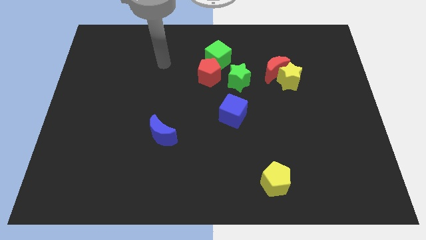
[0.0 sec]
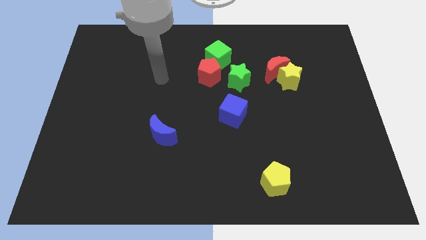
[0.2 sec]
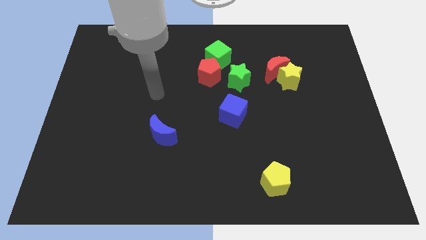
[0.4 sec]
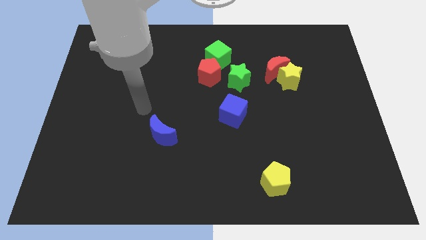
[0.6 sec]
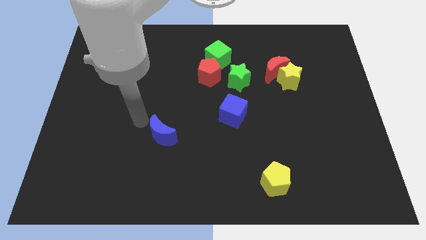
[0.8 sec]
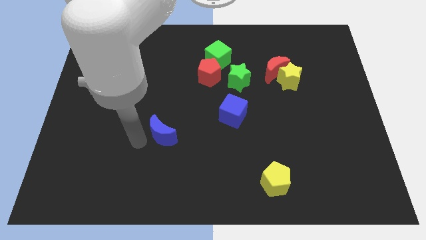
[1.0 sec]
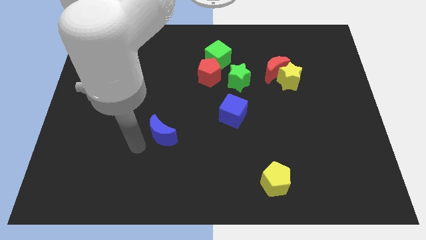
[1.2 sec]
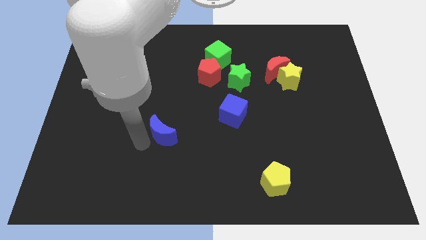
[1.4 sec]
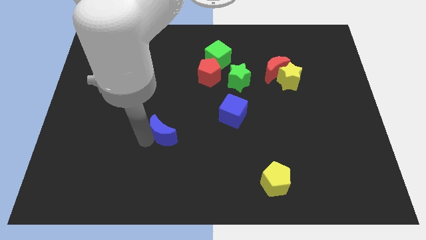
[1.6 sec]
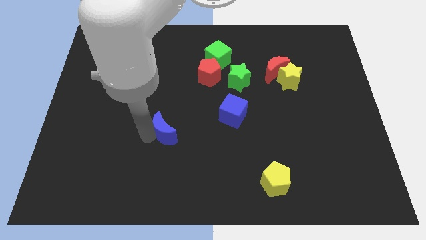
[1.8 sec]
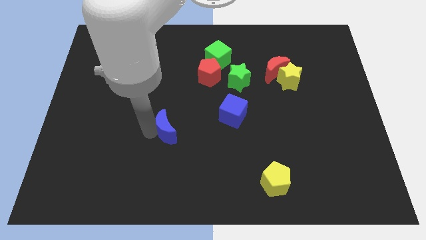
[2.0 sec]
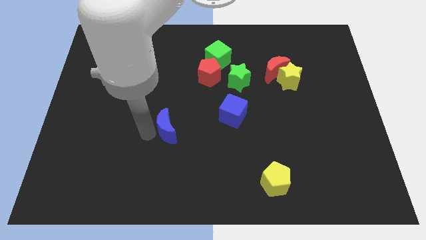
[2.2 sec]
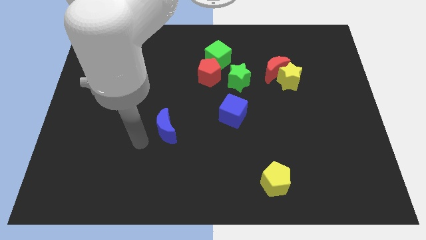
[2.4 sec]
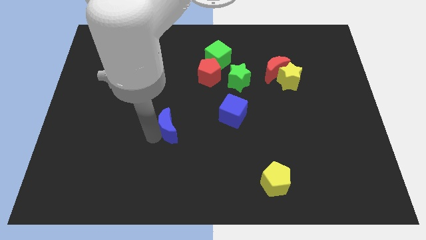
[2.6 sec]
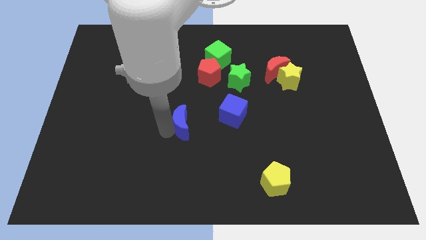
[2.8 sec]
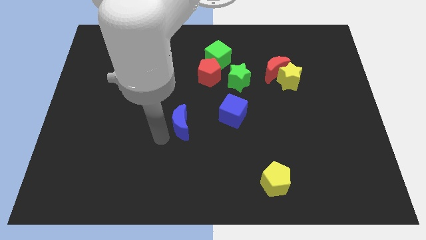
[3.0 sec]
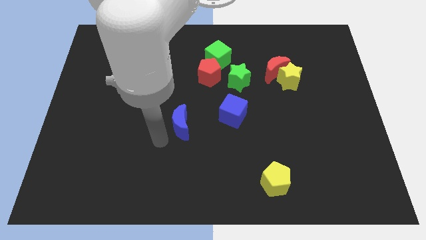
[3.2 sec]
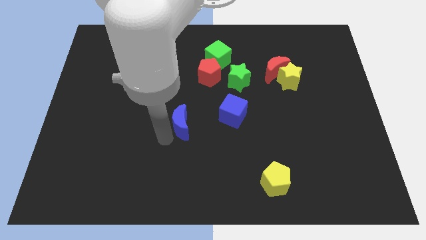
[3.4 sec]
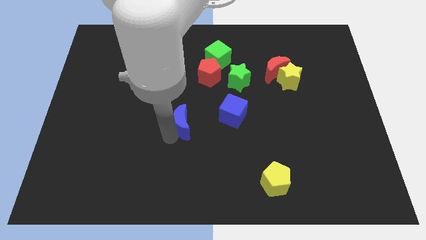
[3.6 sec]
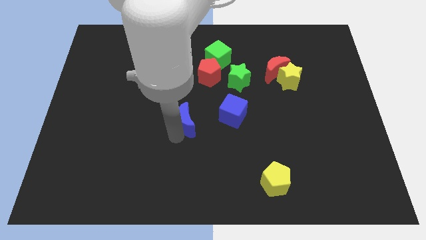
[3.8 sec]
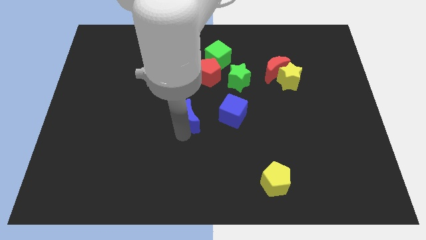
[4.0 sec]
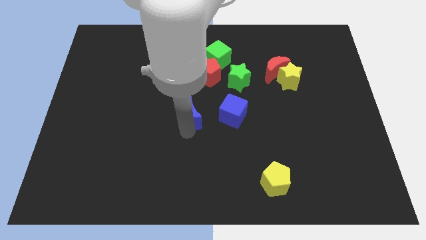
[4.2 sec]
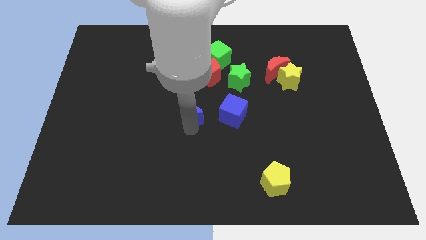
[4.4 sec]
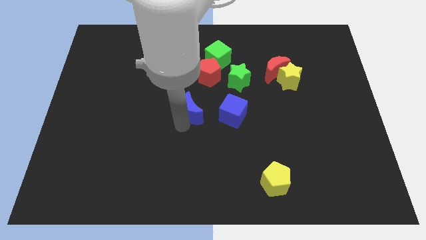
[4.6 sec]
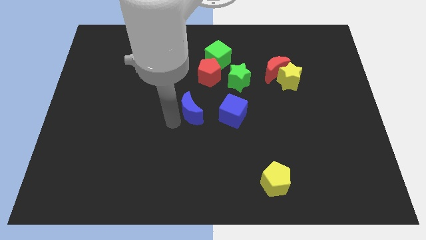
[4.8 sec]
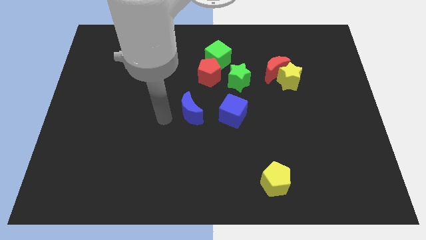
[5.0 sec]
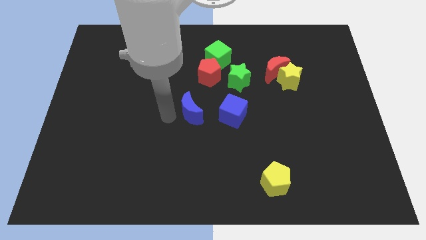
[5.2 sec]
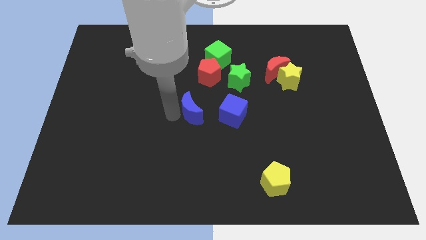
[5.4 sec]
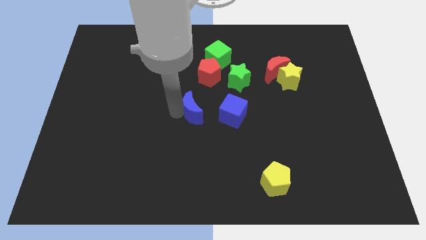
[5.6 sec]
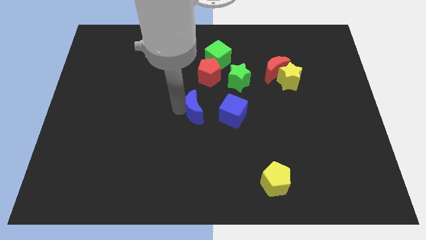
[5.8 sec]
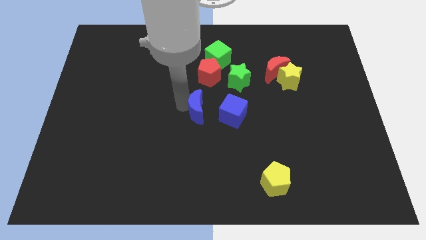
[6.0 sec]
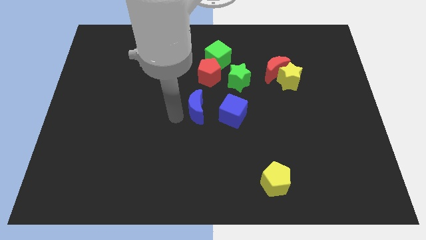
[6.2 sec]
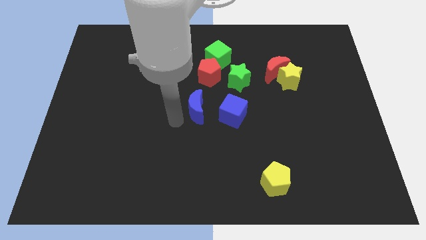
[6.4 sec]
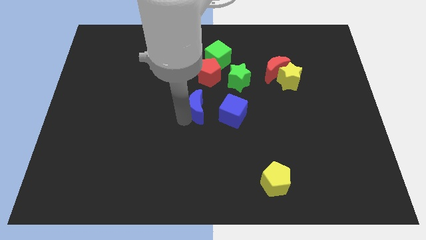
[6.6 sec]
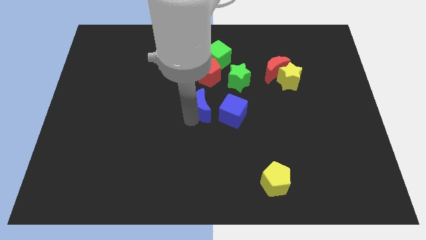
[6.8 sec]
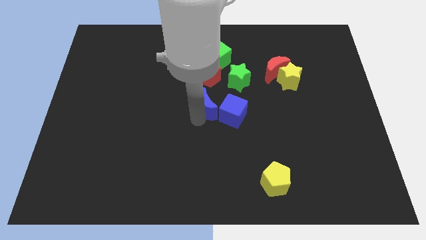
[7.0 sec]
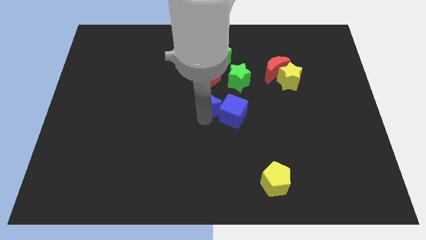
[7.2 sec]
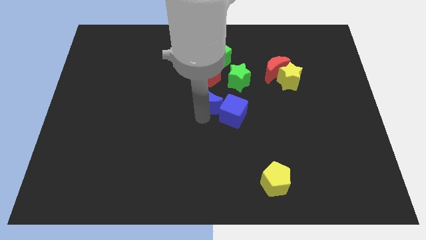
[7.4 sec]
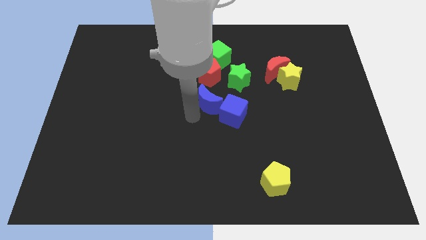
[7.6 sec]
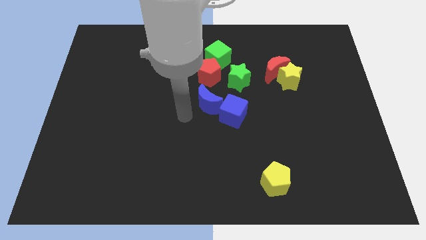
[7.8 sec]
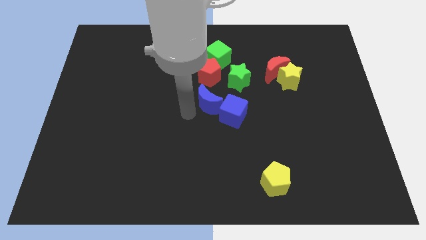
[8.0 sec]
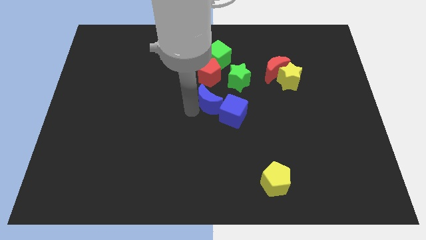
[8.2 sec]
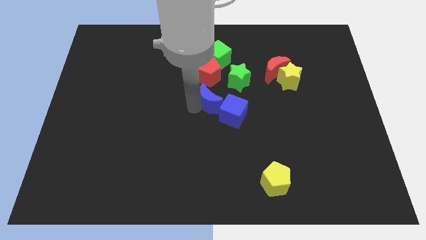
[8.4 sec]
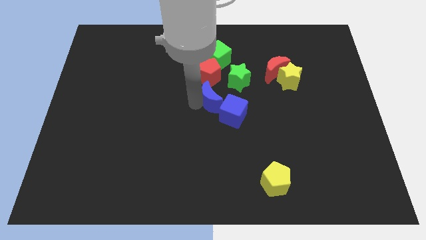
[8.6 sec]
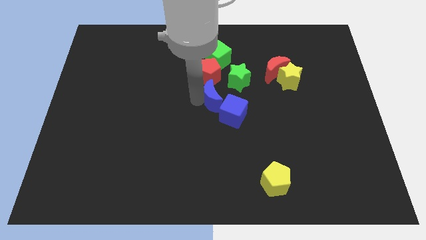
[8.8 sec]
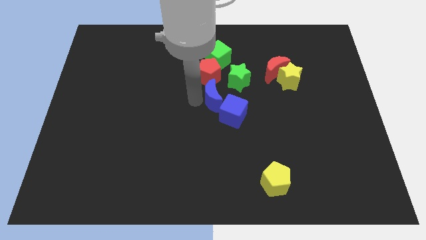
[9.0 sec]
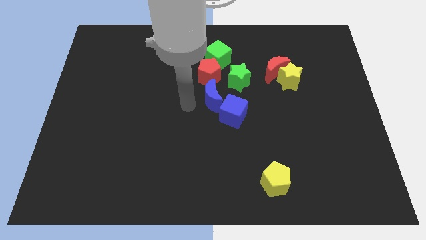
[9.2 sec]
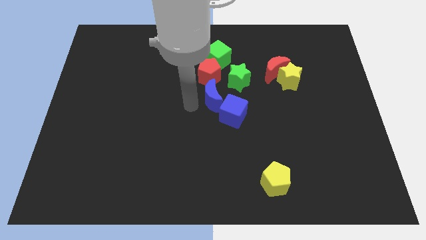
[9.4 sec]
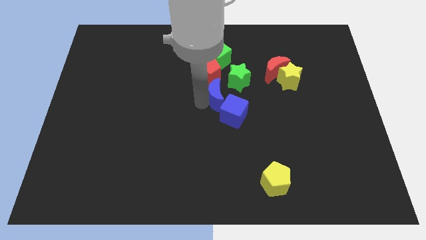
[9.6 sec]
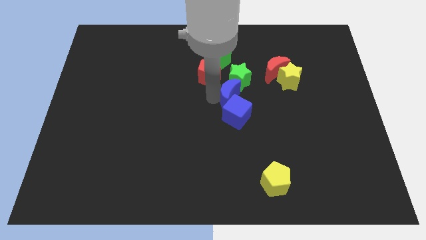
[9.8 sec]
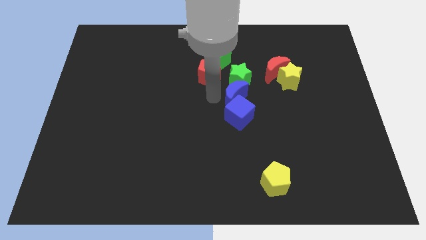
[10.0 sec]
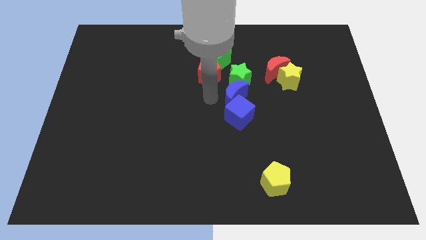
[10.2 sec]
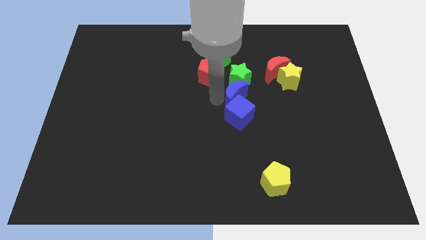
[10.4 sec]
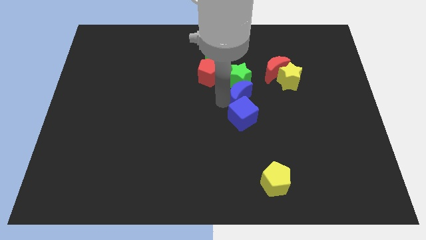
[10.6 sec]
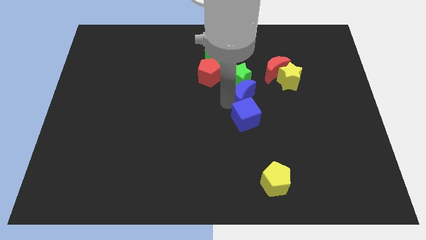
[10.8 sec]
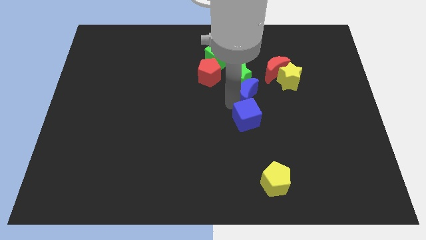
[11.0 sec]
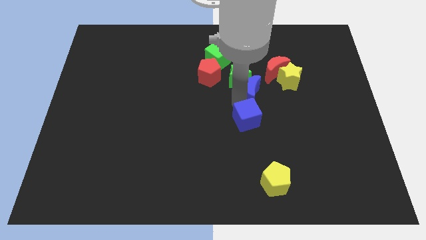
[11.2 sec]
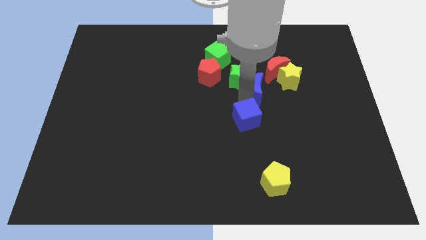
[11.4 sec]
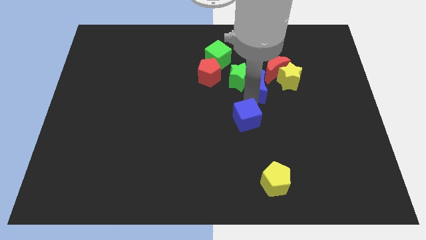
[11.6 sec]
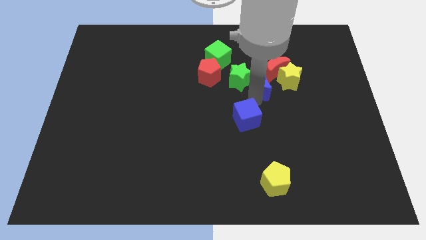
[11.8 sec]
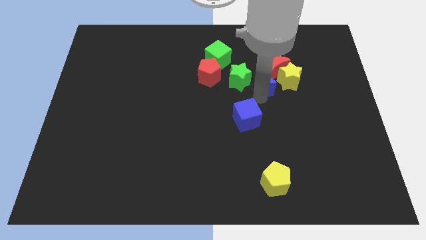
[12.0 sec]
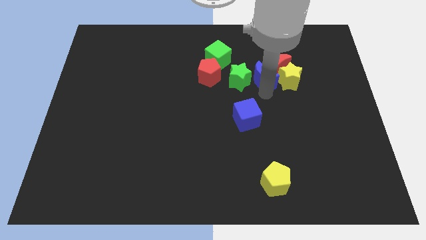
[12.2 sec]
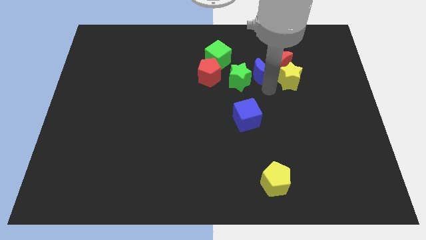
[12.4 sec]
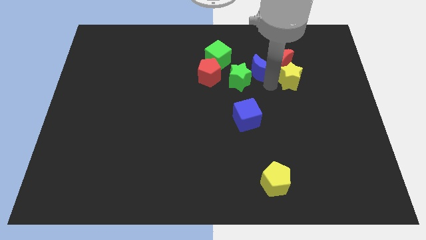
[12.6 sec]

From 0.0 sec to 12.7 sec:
put the blue moon just right of the green cube

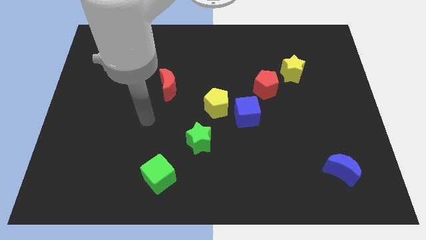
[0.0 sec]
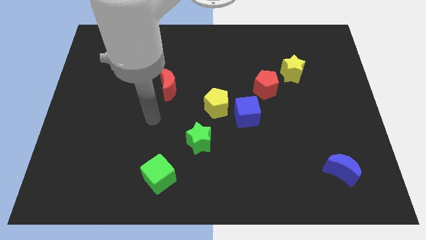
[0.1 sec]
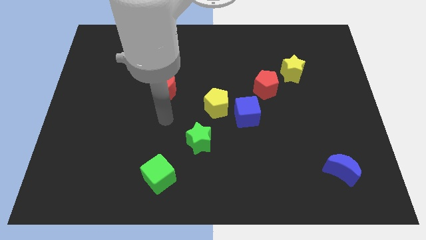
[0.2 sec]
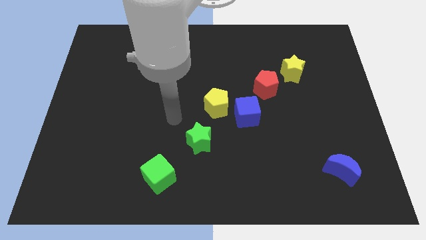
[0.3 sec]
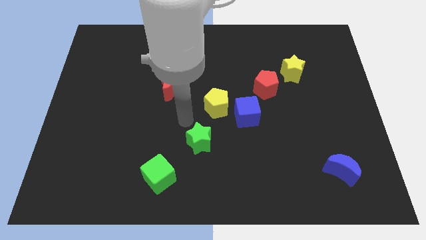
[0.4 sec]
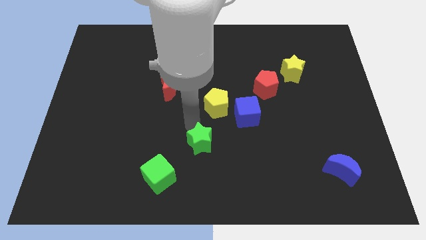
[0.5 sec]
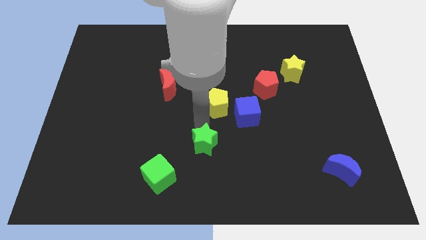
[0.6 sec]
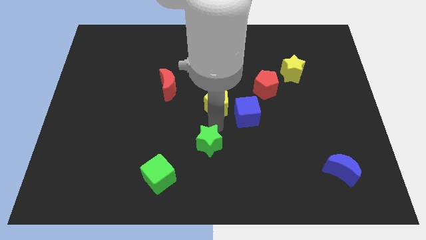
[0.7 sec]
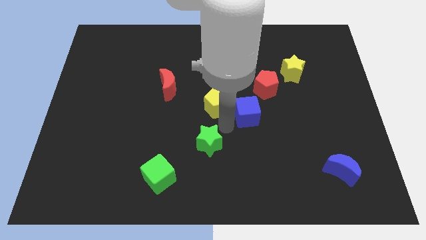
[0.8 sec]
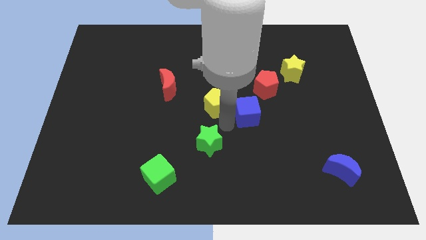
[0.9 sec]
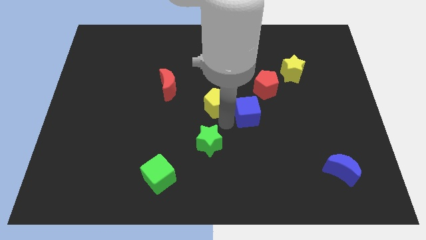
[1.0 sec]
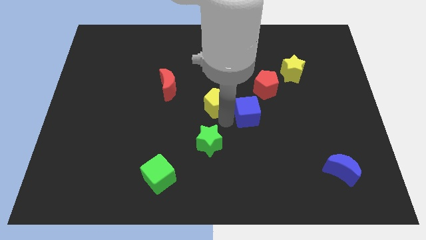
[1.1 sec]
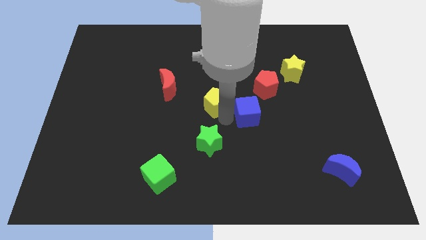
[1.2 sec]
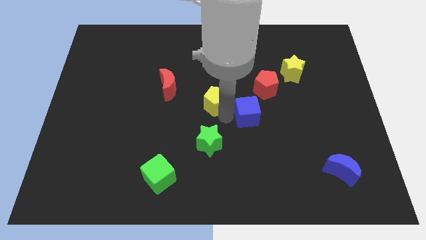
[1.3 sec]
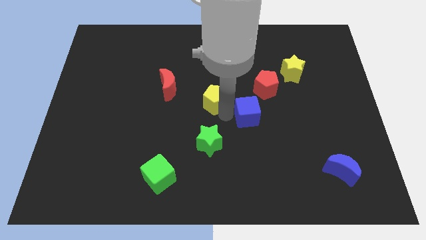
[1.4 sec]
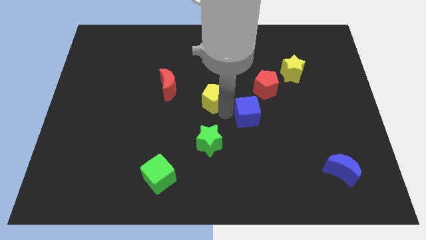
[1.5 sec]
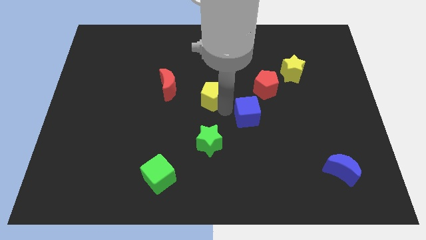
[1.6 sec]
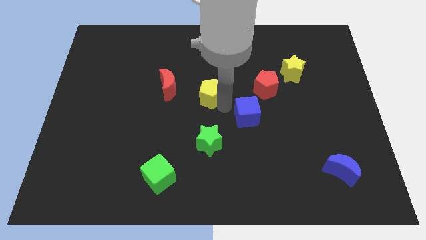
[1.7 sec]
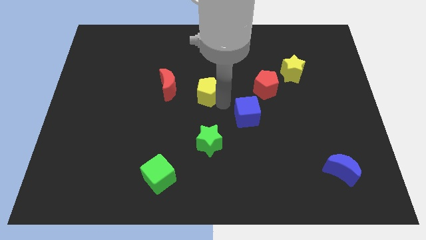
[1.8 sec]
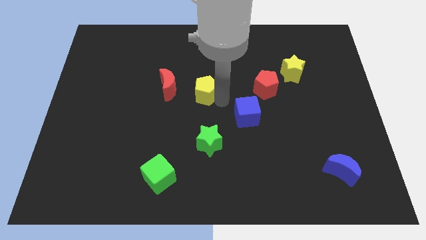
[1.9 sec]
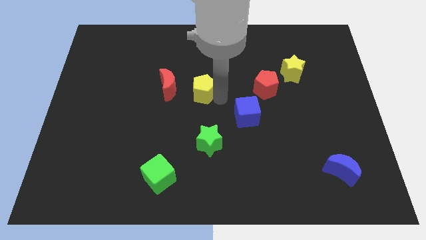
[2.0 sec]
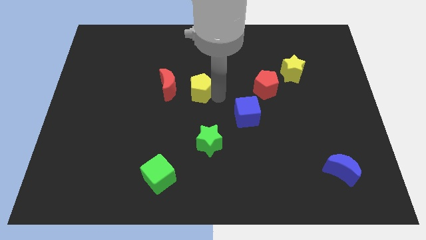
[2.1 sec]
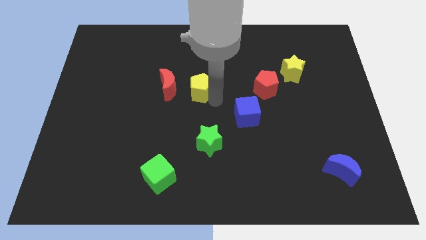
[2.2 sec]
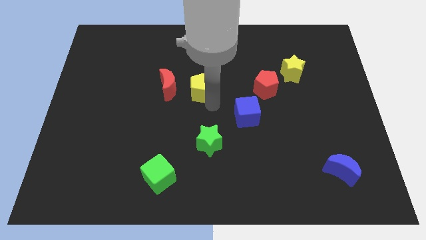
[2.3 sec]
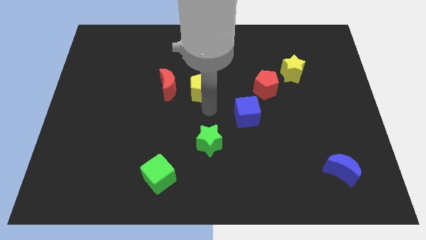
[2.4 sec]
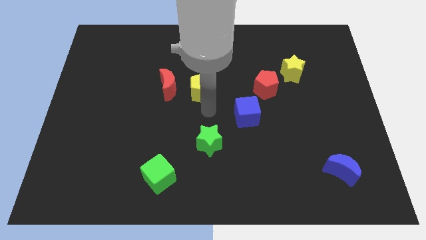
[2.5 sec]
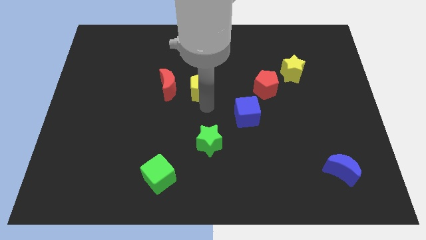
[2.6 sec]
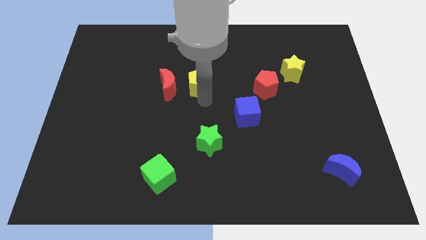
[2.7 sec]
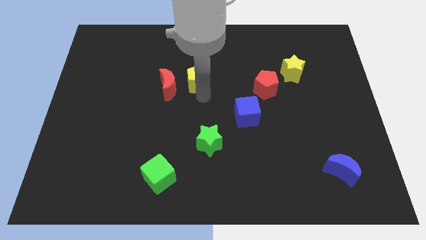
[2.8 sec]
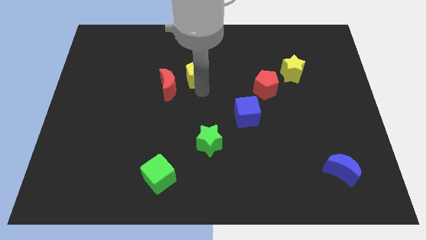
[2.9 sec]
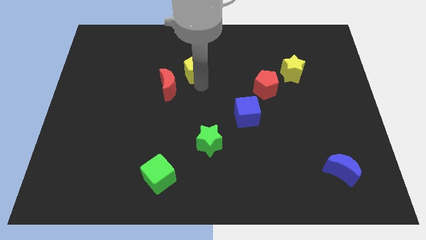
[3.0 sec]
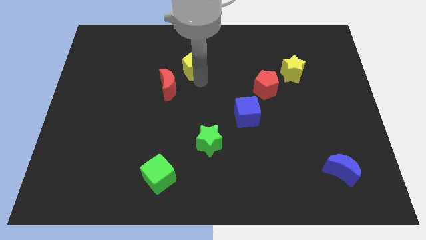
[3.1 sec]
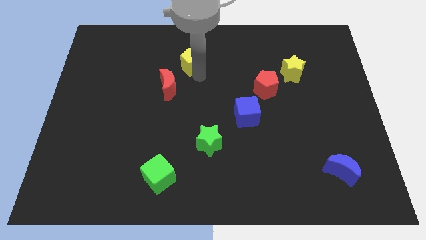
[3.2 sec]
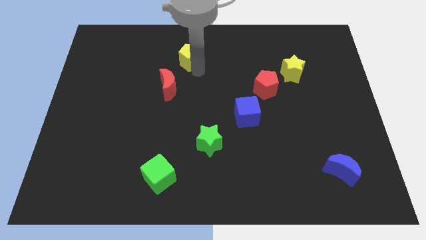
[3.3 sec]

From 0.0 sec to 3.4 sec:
push the yellow pentagon above the red moon
